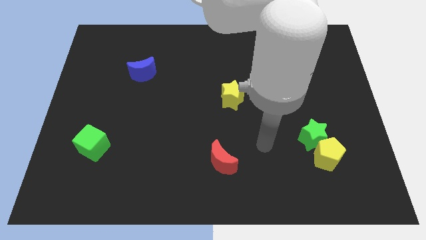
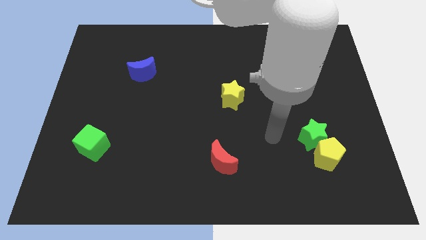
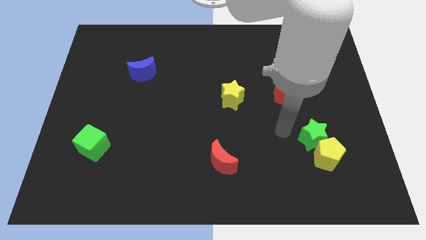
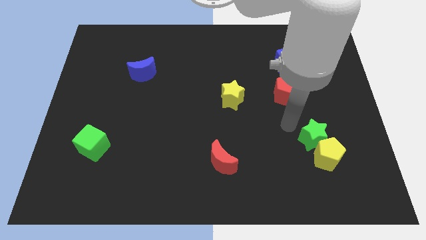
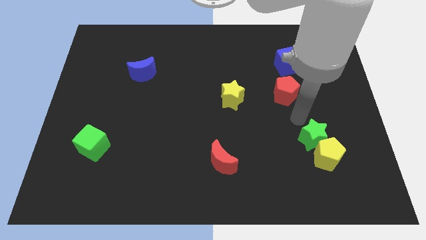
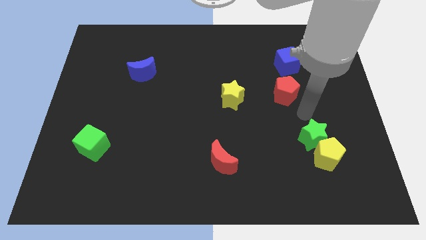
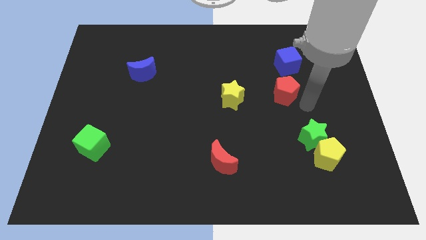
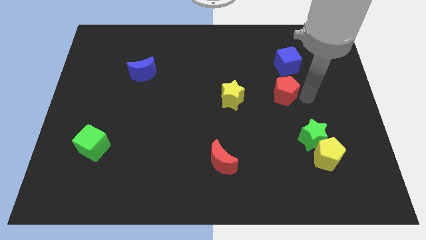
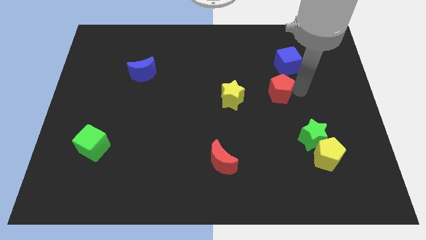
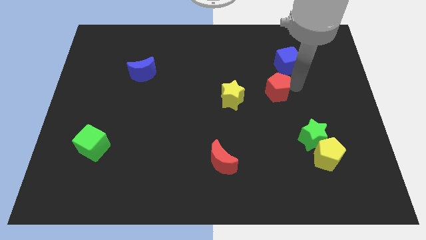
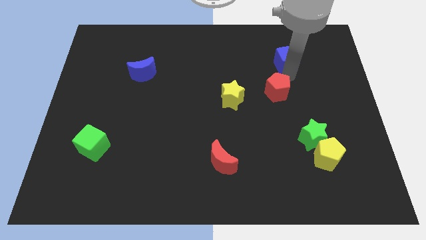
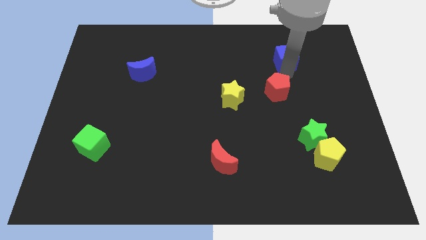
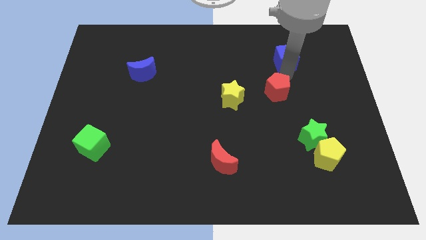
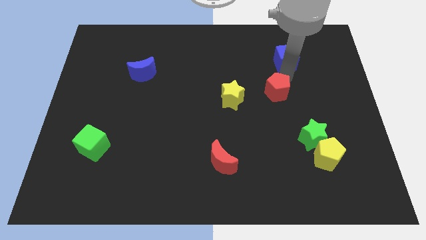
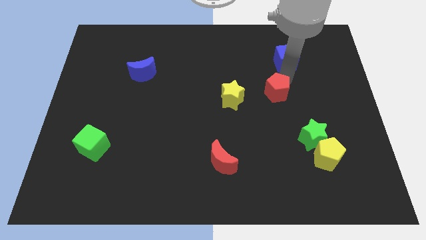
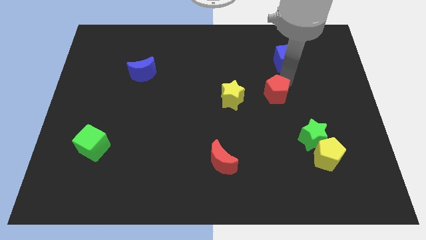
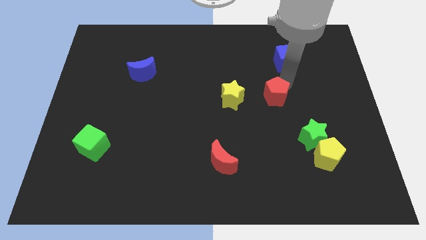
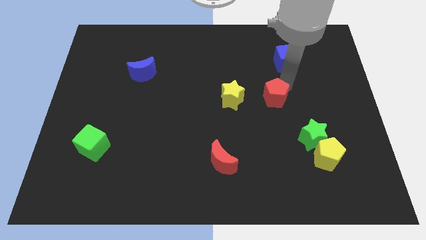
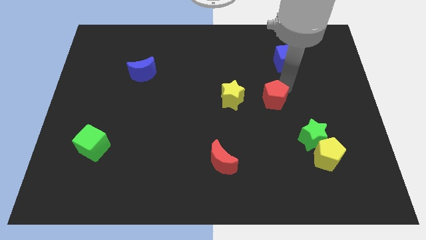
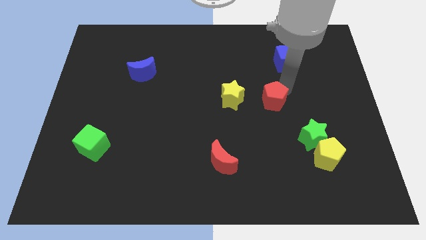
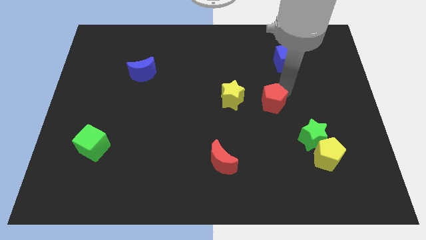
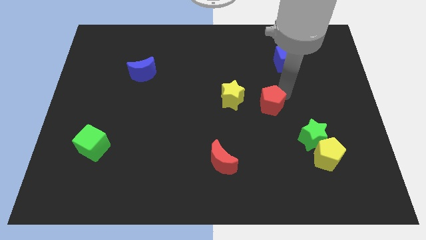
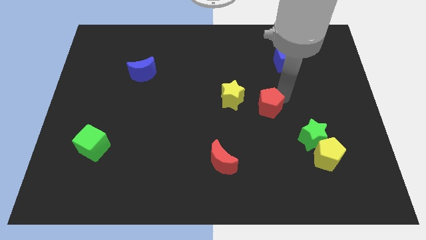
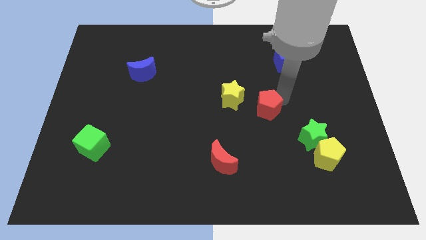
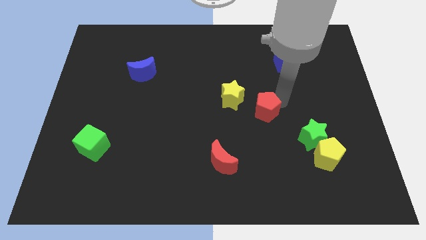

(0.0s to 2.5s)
move the red pentagon a little bit diagonally down and left

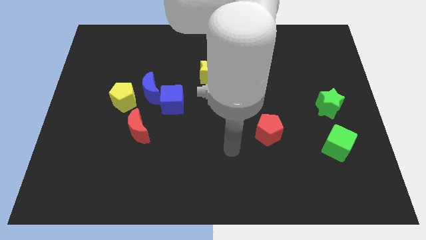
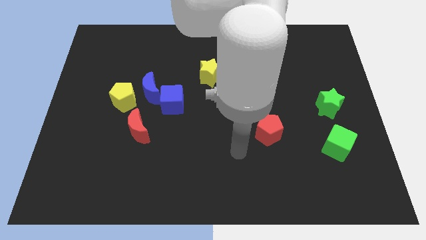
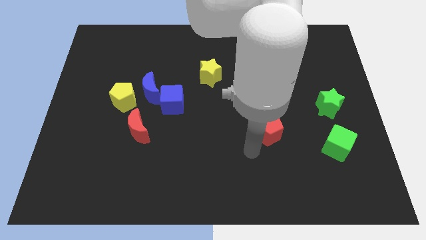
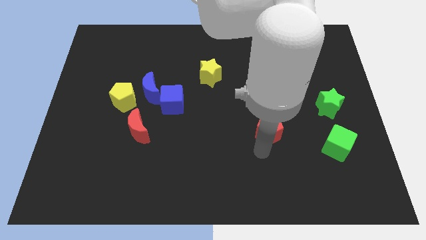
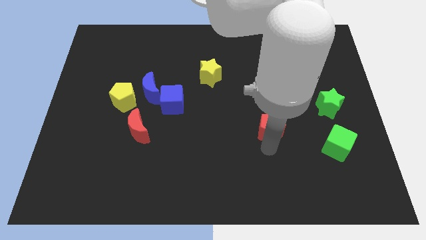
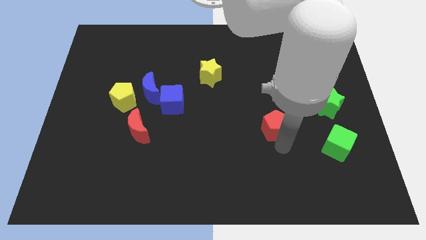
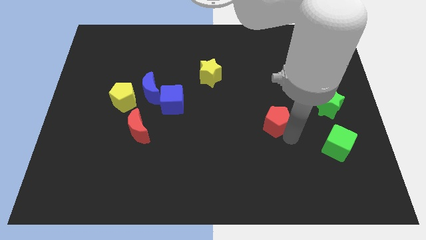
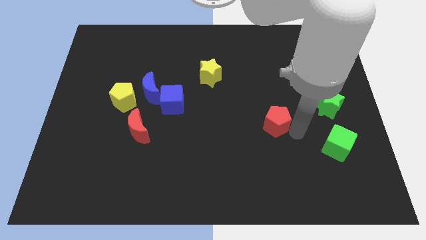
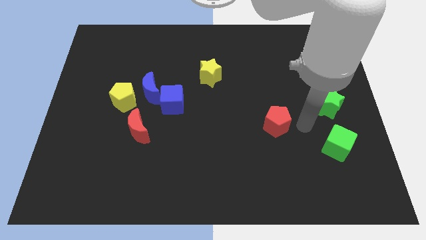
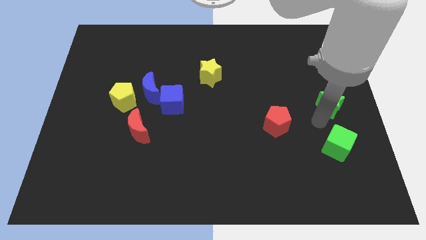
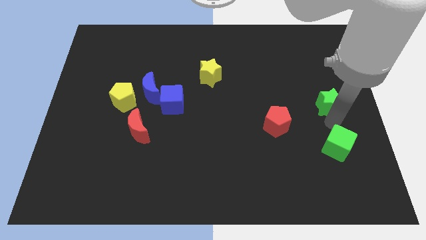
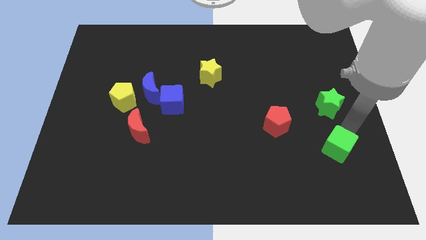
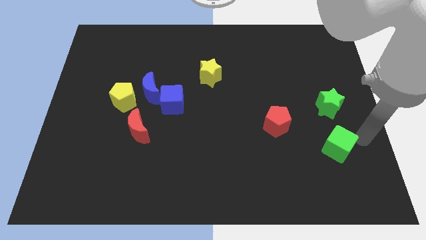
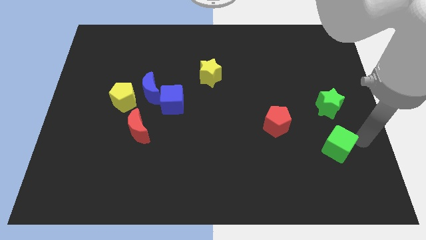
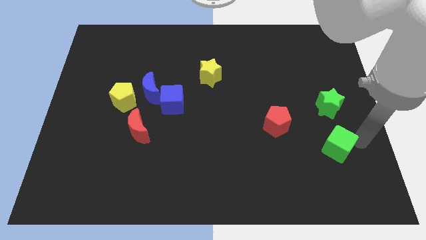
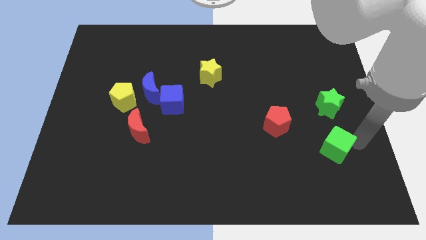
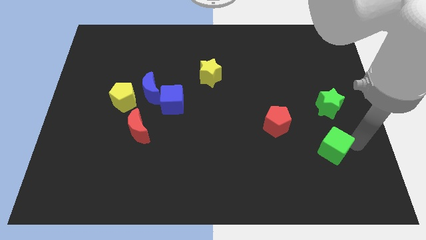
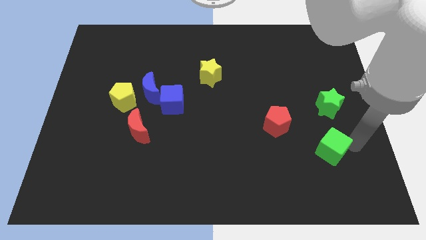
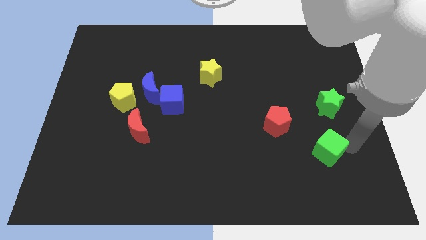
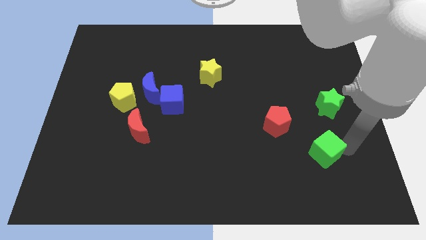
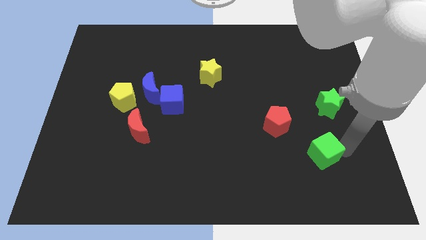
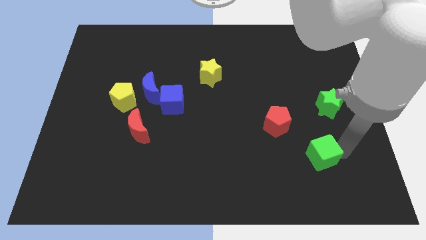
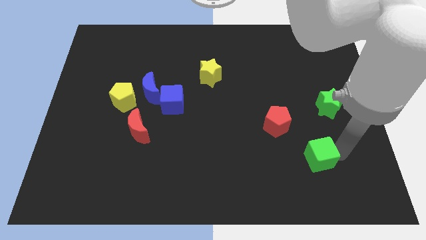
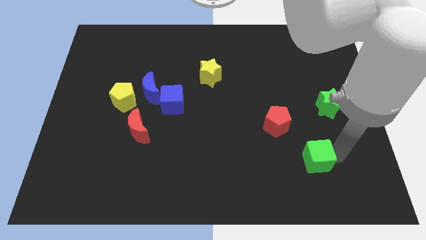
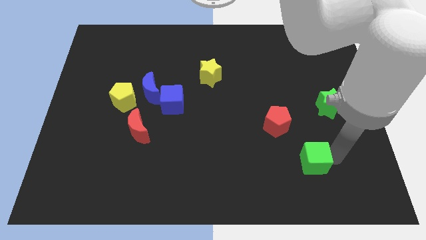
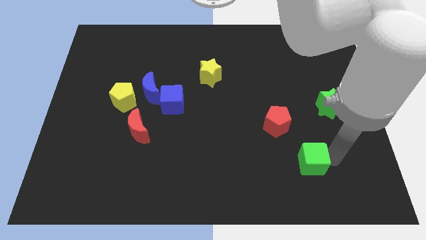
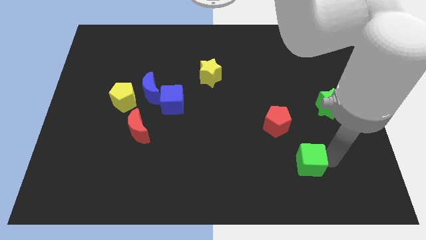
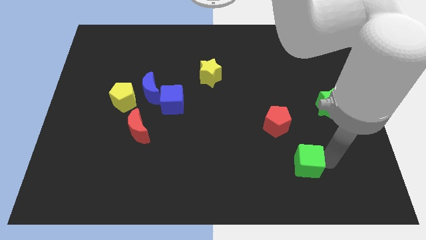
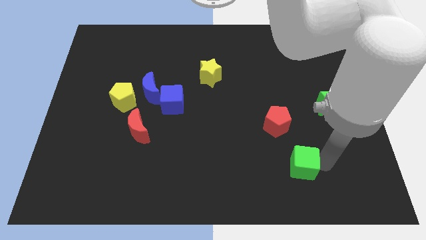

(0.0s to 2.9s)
slightly push the green cube to the left

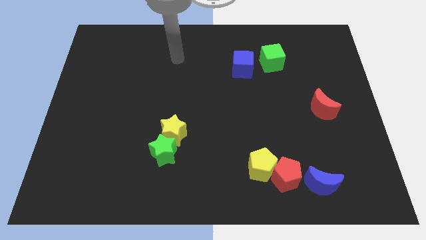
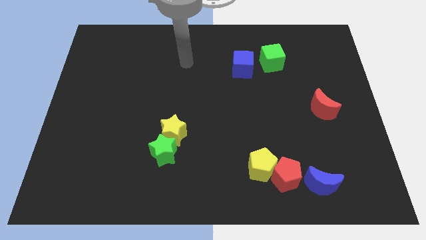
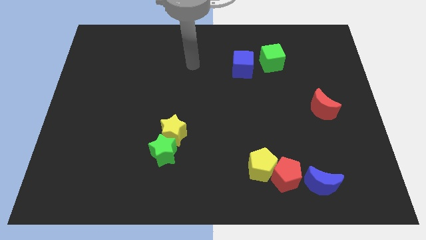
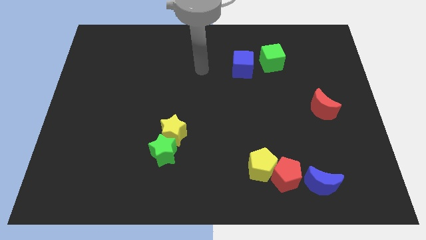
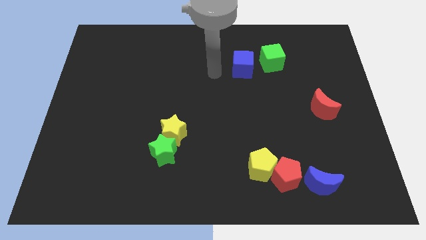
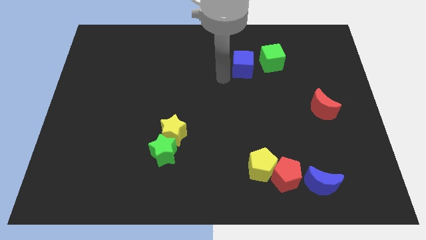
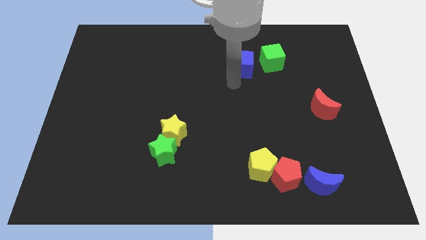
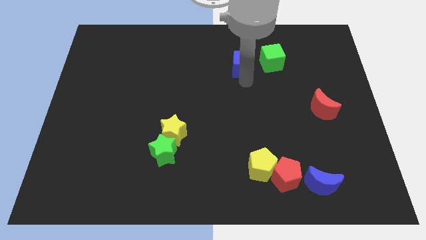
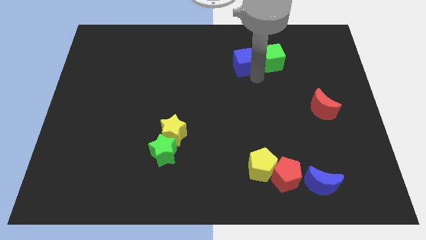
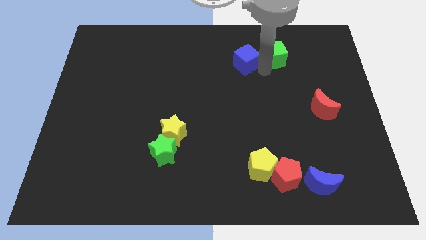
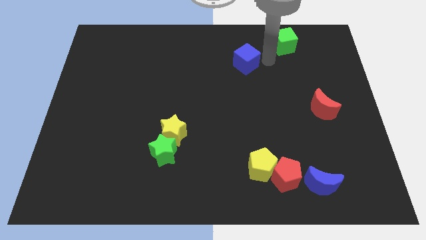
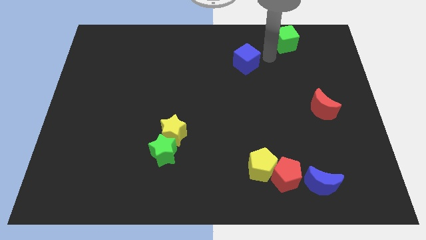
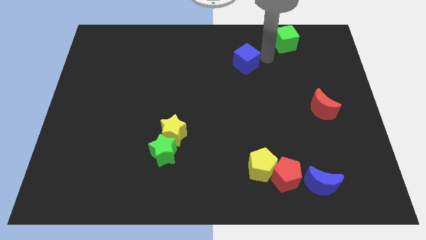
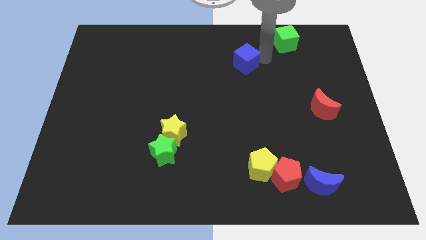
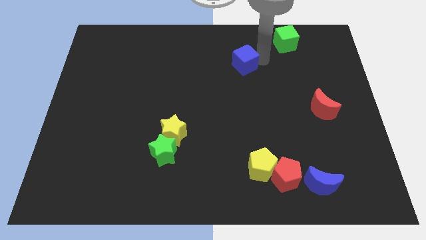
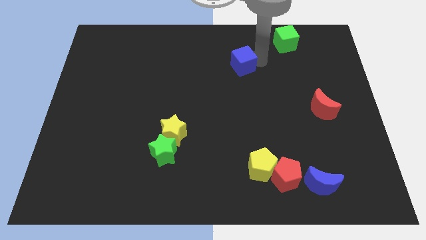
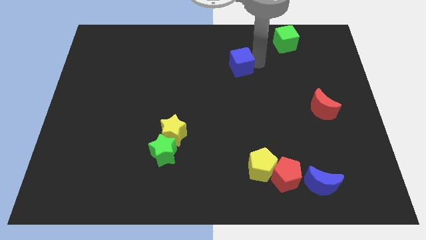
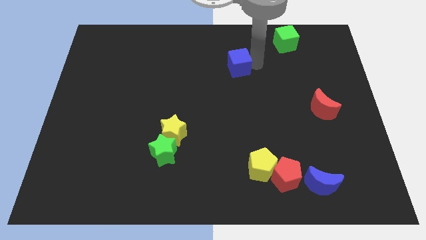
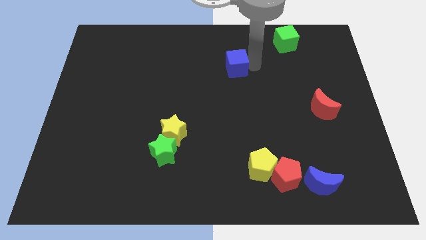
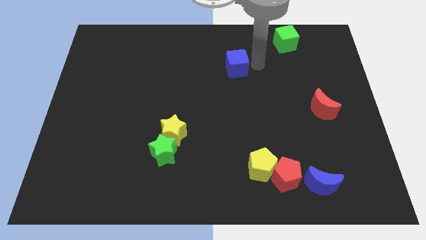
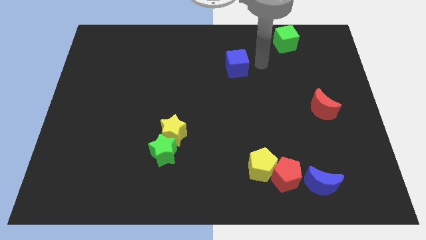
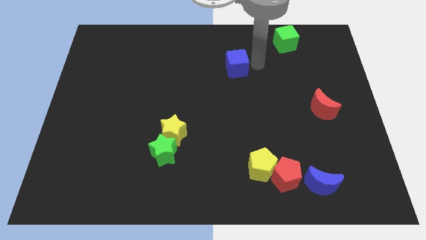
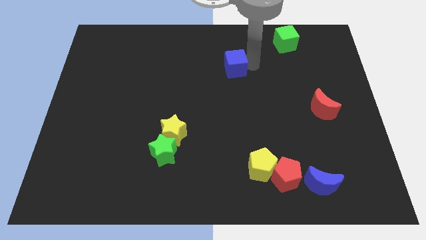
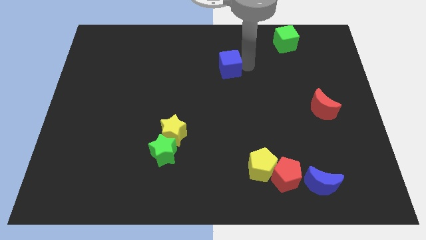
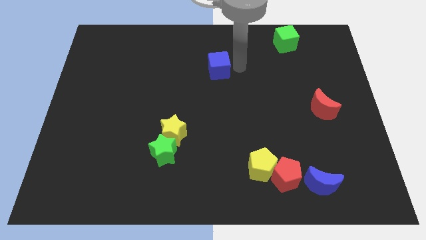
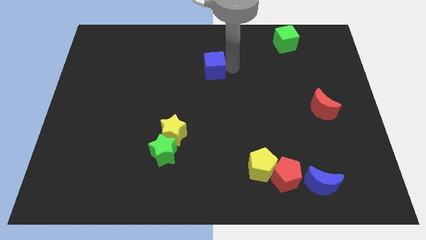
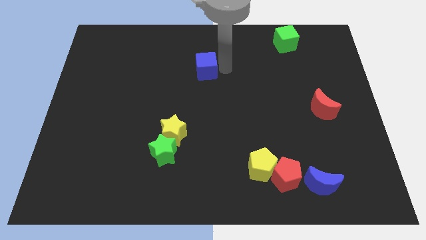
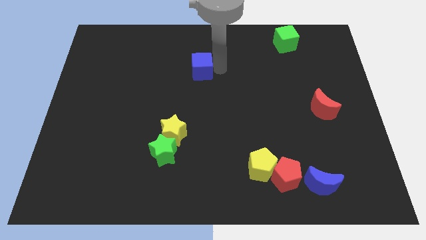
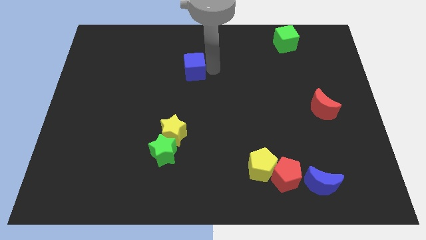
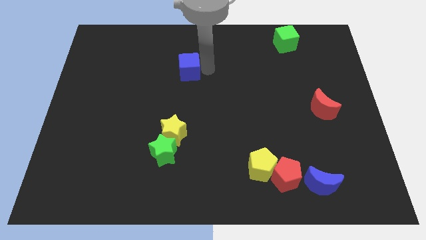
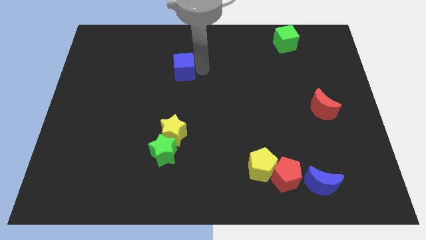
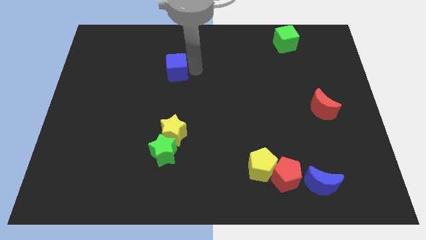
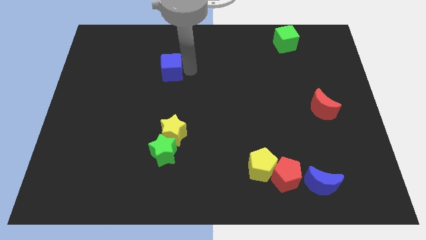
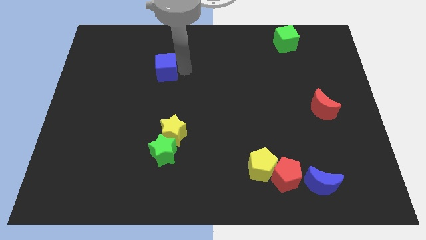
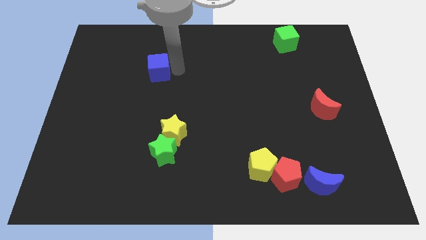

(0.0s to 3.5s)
push the blue cube to the left
